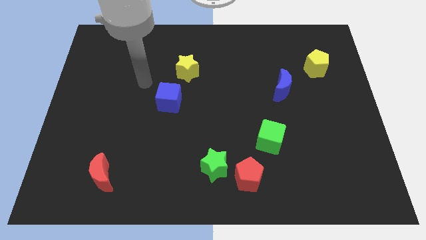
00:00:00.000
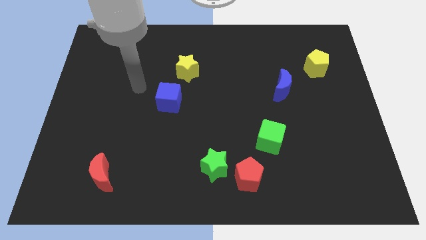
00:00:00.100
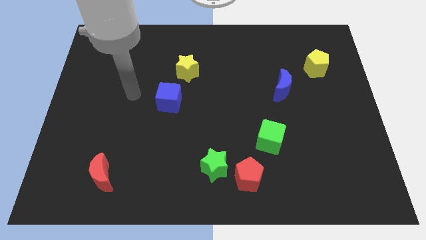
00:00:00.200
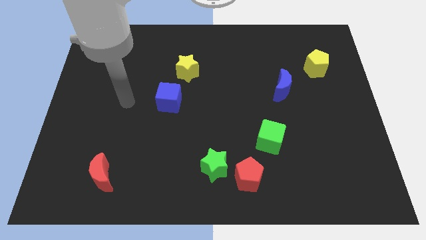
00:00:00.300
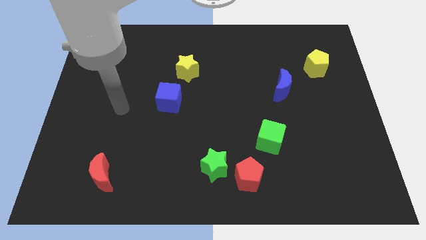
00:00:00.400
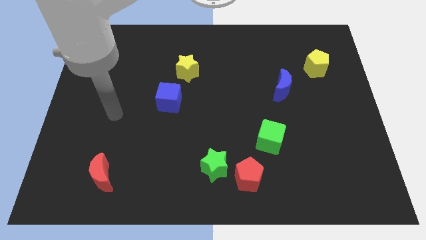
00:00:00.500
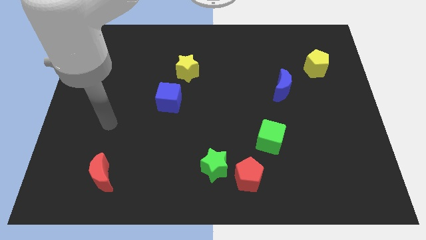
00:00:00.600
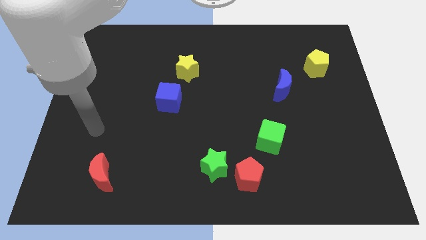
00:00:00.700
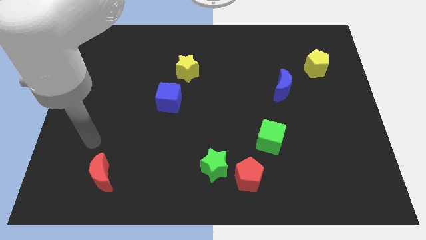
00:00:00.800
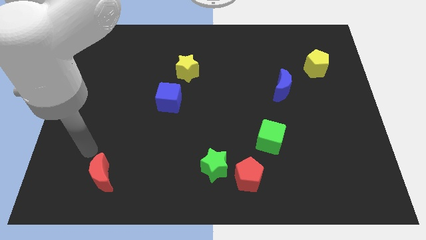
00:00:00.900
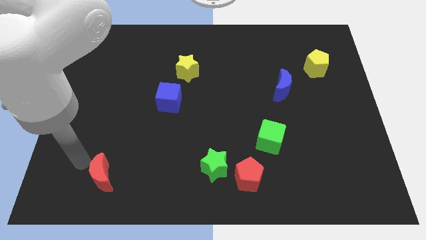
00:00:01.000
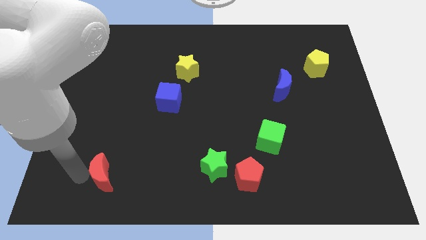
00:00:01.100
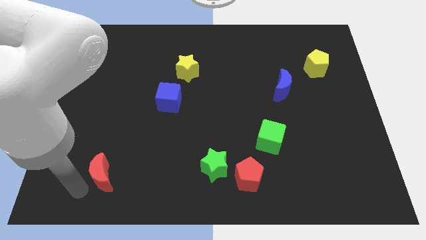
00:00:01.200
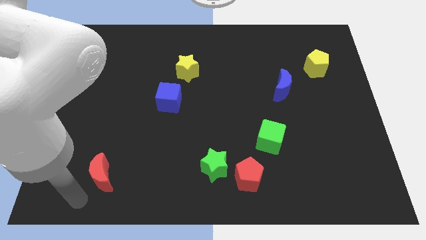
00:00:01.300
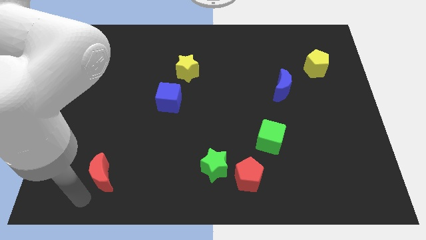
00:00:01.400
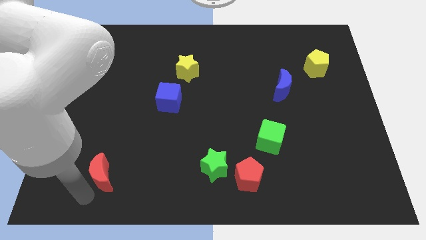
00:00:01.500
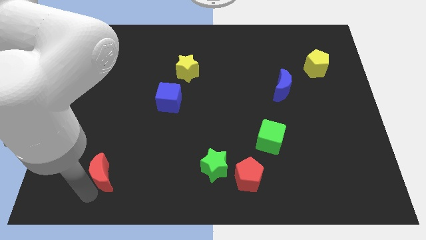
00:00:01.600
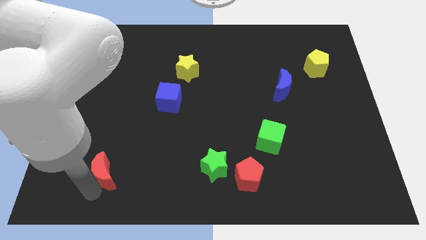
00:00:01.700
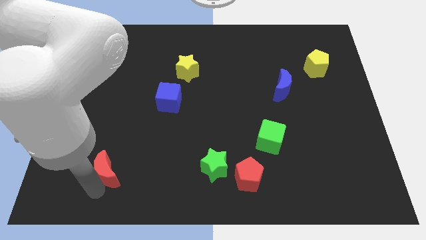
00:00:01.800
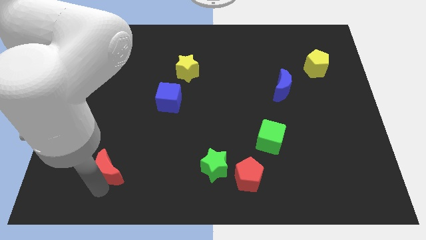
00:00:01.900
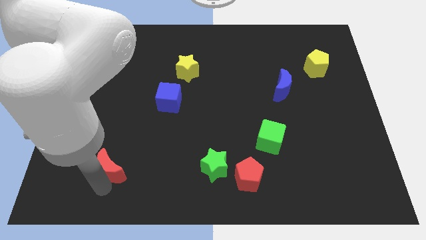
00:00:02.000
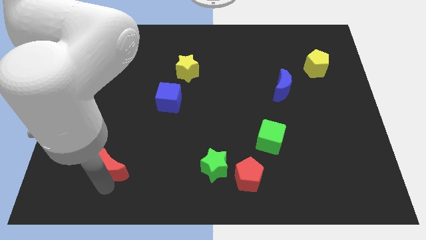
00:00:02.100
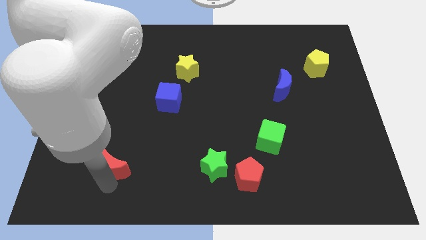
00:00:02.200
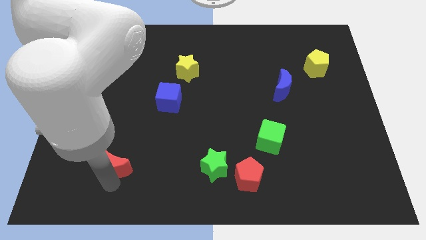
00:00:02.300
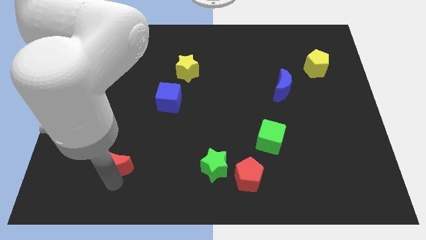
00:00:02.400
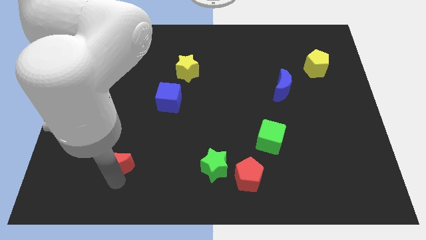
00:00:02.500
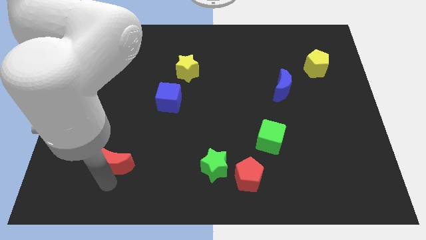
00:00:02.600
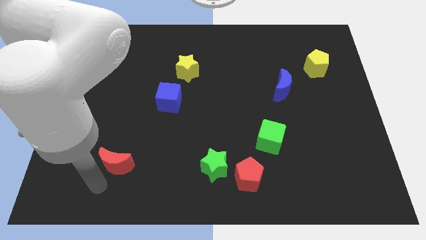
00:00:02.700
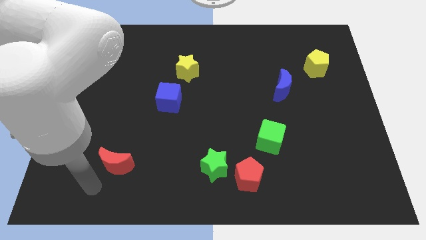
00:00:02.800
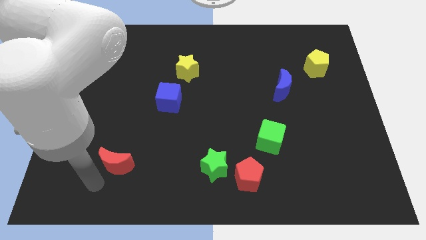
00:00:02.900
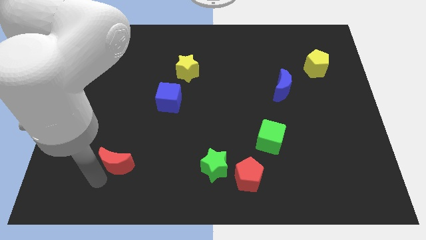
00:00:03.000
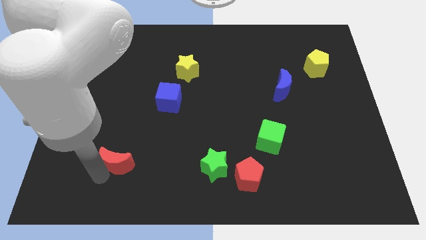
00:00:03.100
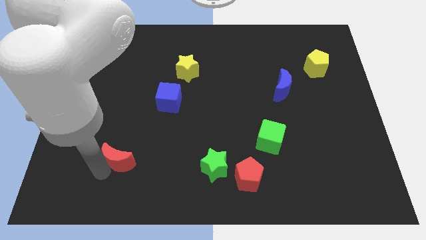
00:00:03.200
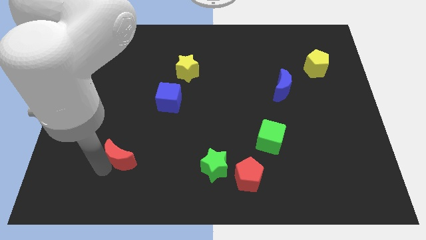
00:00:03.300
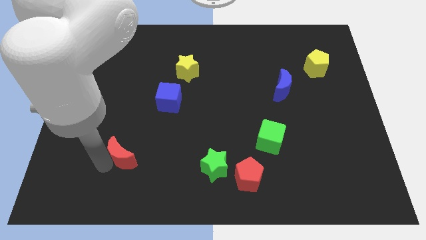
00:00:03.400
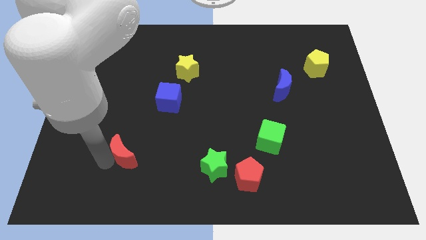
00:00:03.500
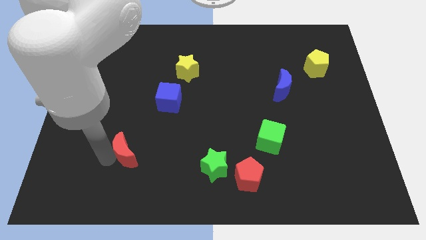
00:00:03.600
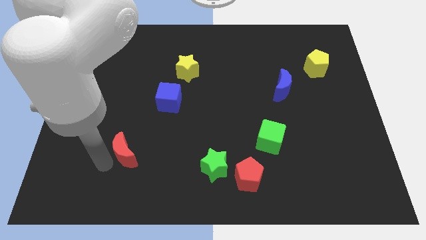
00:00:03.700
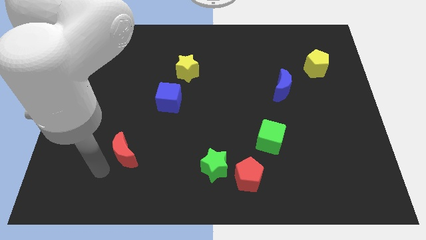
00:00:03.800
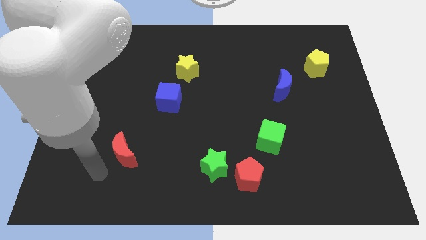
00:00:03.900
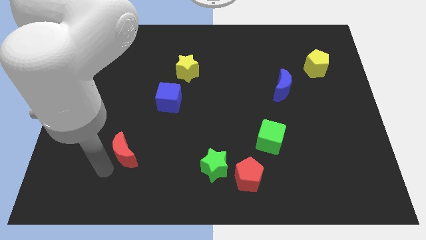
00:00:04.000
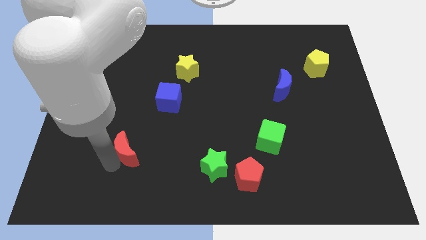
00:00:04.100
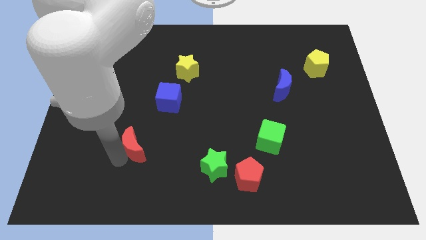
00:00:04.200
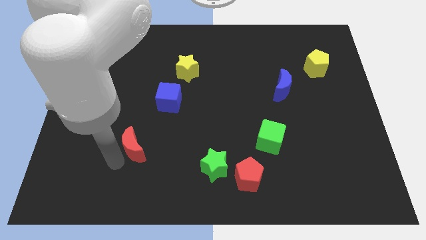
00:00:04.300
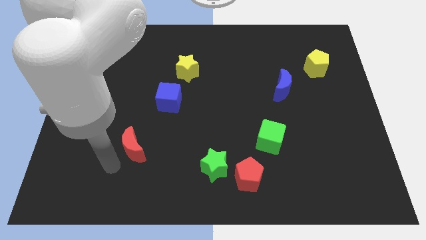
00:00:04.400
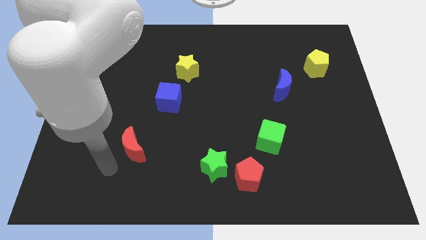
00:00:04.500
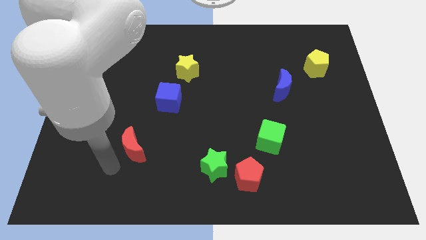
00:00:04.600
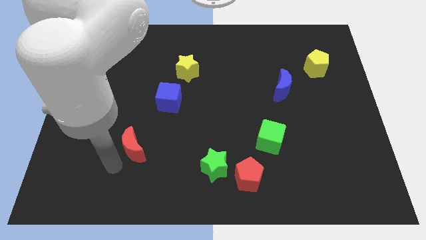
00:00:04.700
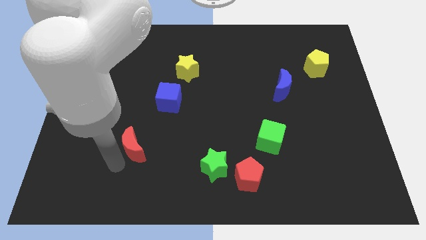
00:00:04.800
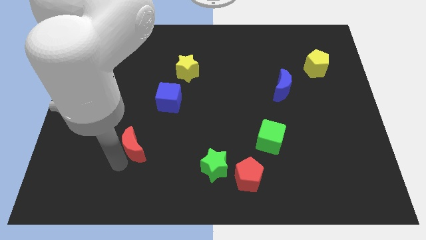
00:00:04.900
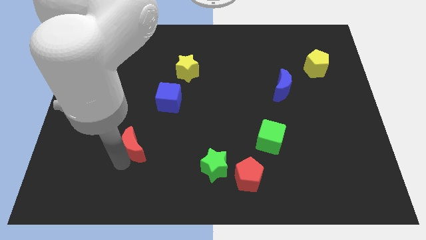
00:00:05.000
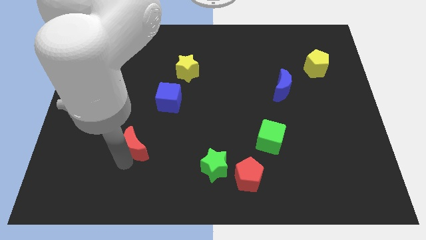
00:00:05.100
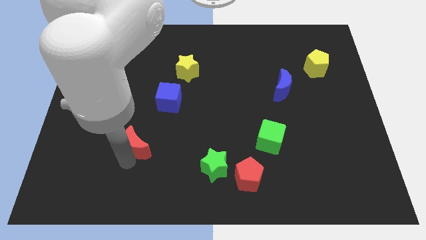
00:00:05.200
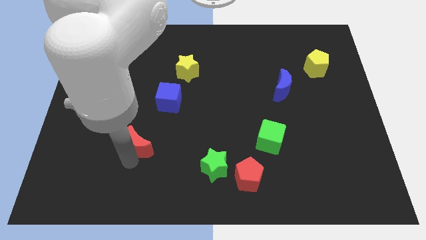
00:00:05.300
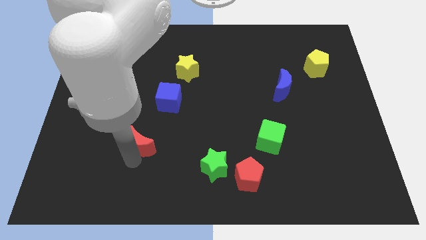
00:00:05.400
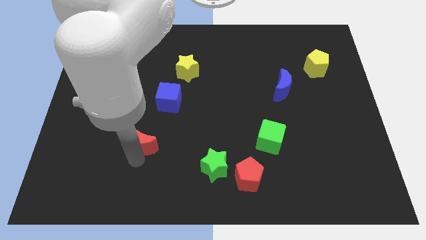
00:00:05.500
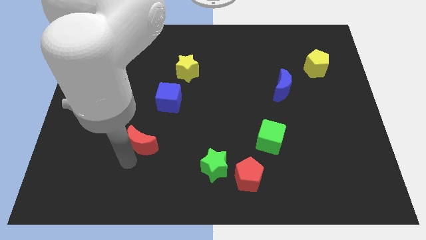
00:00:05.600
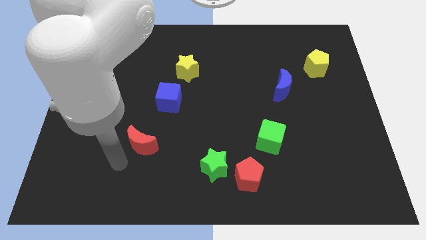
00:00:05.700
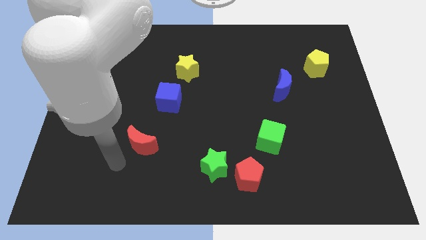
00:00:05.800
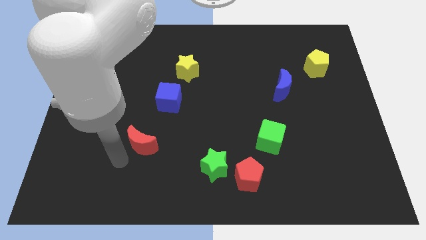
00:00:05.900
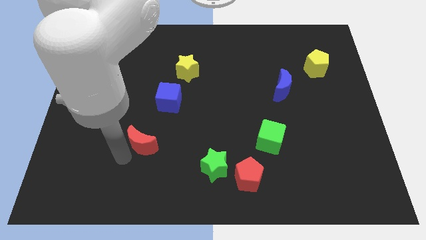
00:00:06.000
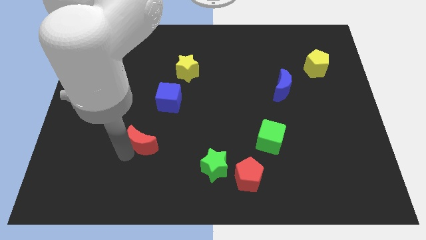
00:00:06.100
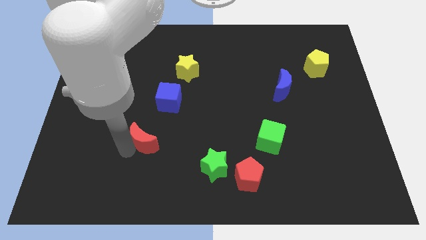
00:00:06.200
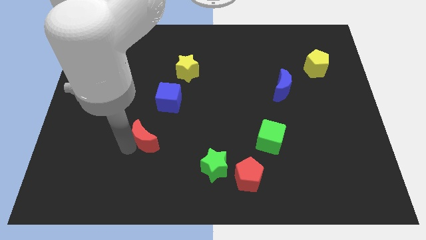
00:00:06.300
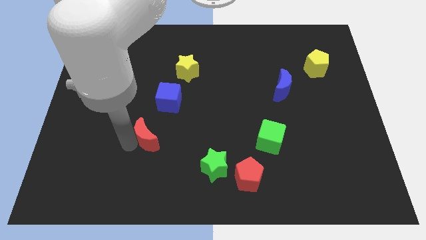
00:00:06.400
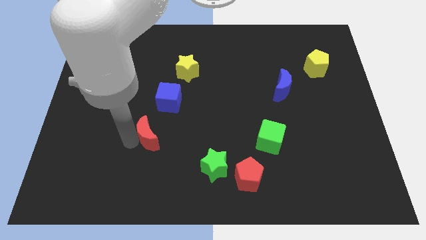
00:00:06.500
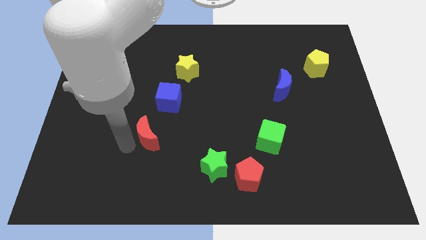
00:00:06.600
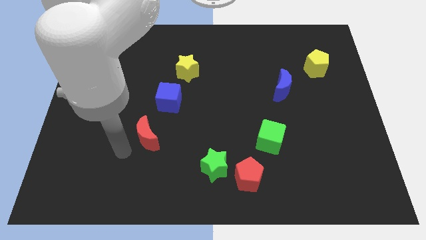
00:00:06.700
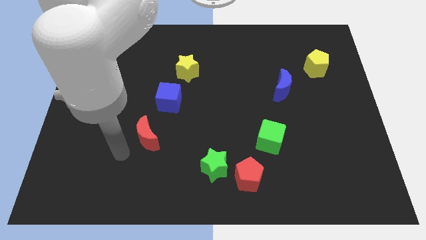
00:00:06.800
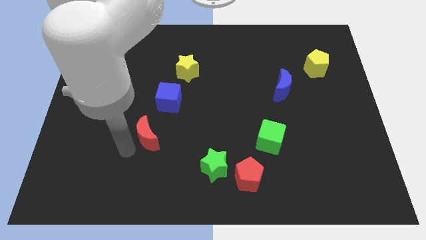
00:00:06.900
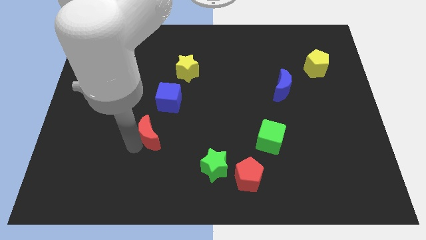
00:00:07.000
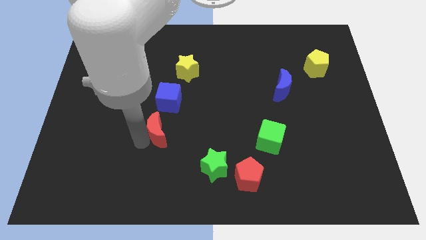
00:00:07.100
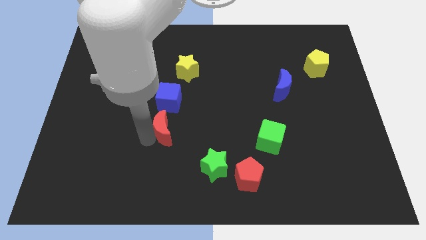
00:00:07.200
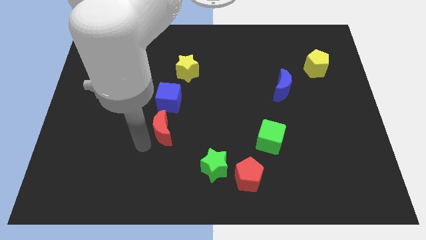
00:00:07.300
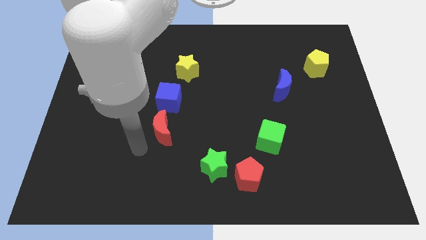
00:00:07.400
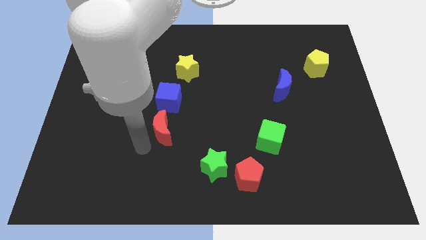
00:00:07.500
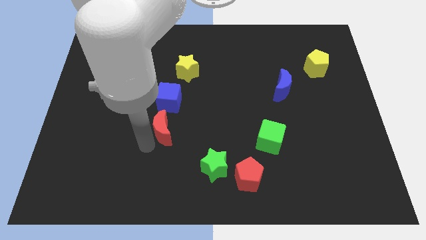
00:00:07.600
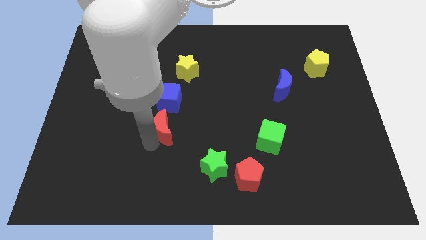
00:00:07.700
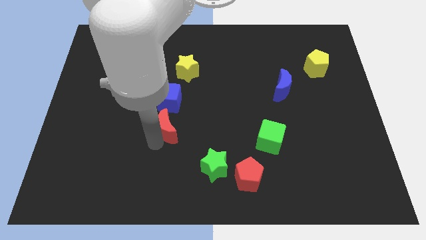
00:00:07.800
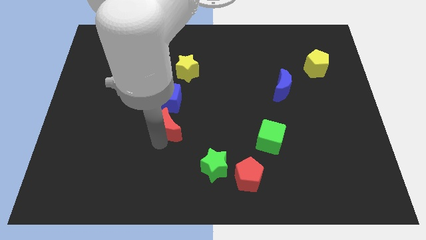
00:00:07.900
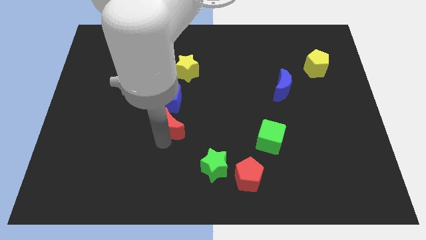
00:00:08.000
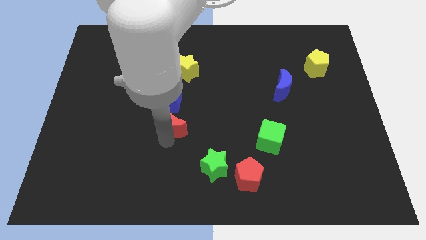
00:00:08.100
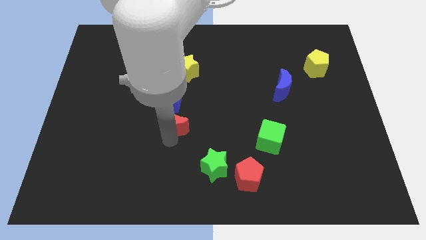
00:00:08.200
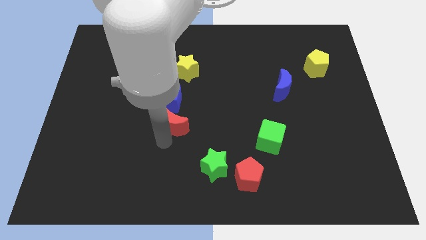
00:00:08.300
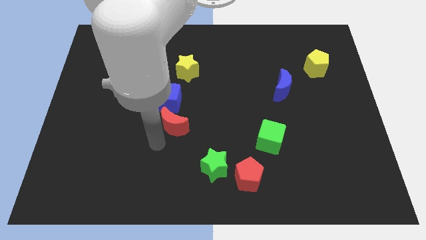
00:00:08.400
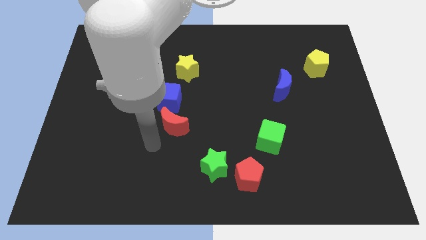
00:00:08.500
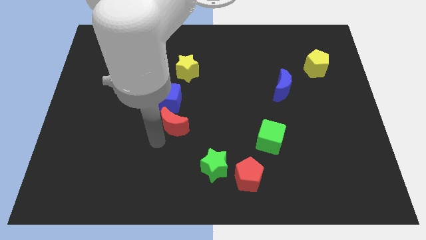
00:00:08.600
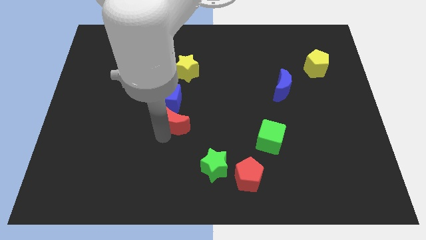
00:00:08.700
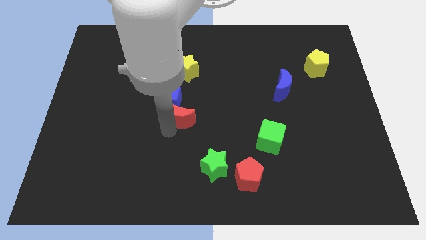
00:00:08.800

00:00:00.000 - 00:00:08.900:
move the red moon upwards and right diagonally
